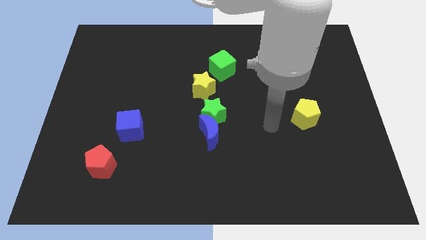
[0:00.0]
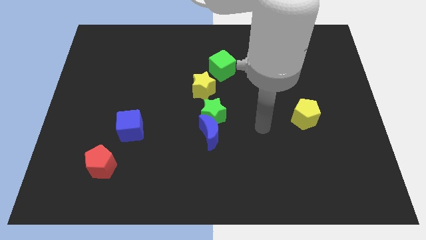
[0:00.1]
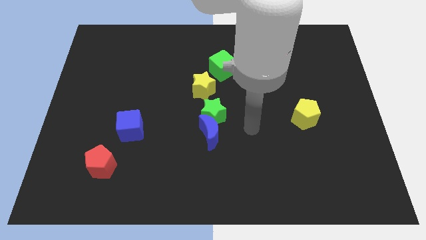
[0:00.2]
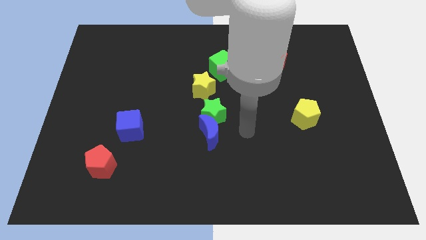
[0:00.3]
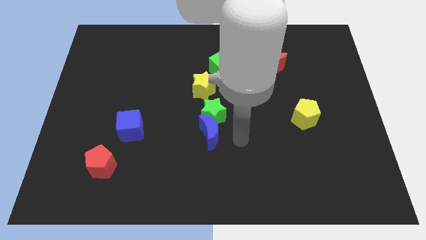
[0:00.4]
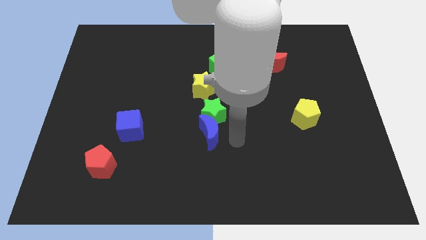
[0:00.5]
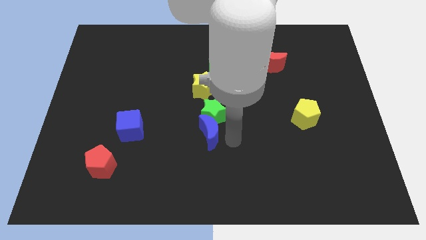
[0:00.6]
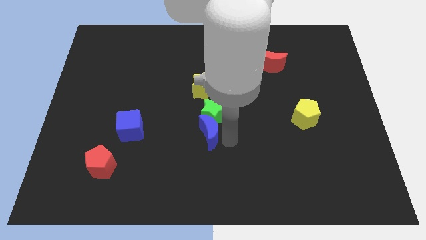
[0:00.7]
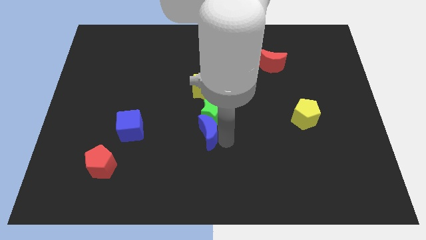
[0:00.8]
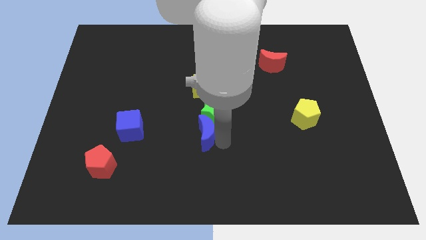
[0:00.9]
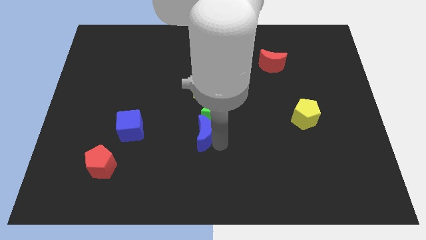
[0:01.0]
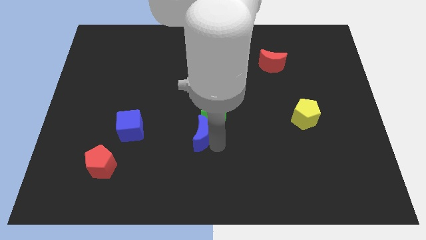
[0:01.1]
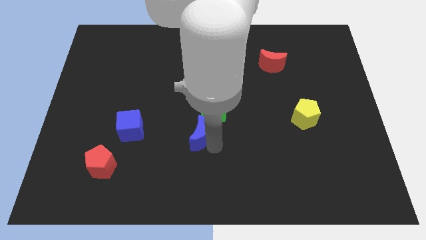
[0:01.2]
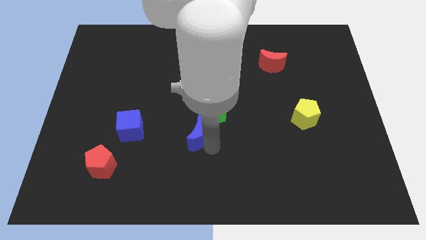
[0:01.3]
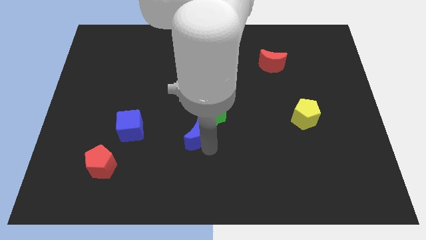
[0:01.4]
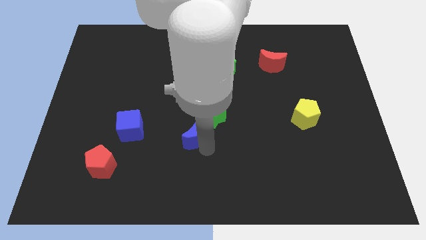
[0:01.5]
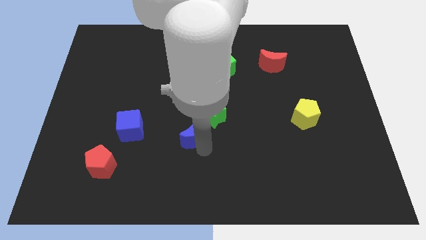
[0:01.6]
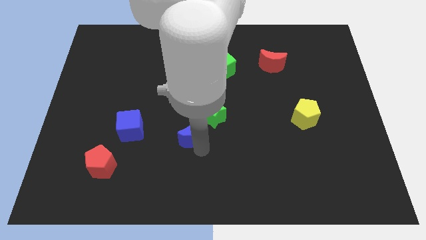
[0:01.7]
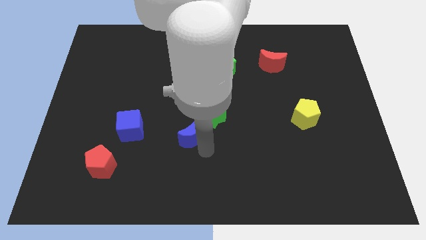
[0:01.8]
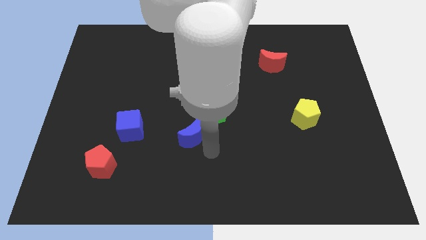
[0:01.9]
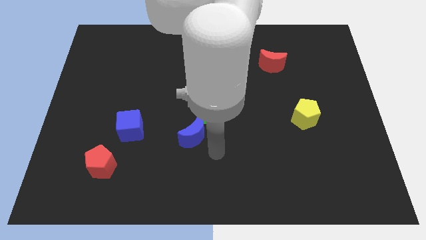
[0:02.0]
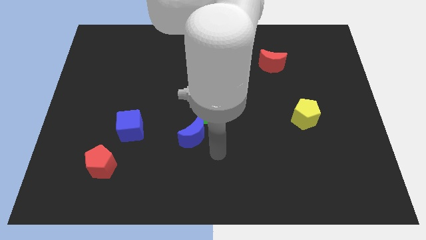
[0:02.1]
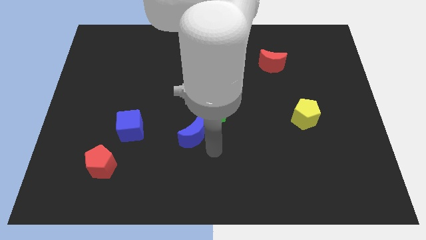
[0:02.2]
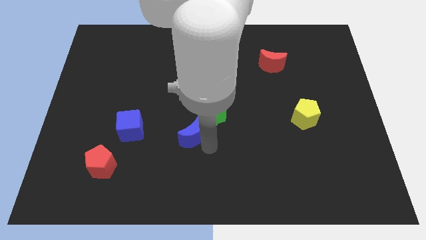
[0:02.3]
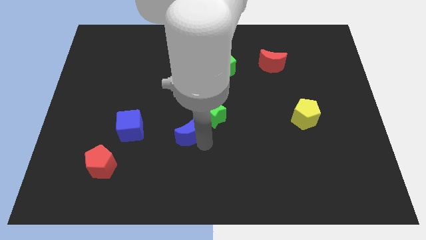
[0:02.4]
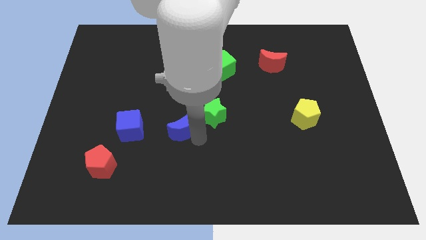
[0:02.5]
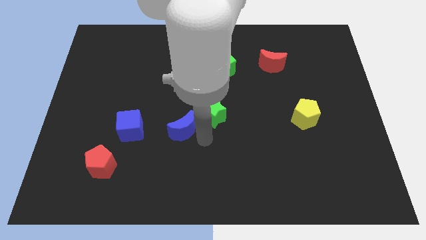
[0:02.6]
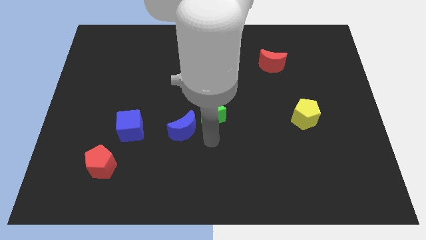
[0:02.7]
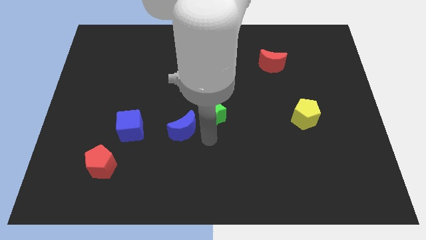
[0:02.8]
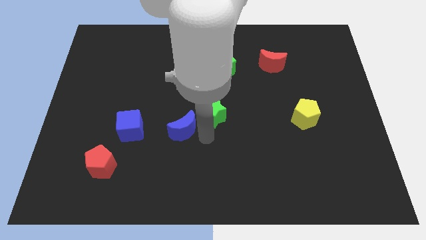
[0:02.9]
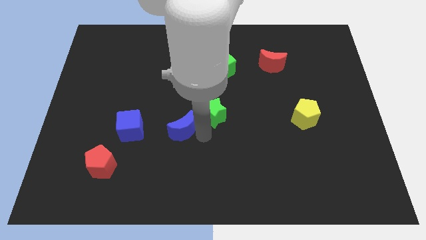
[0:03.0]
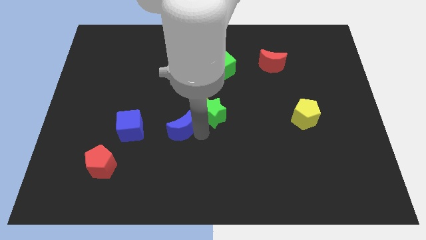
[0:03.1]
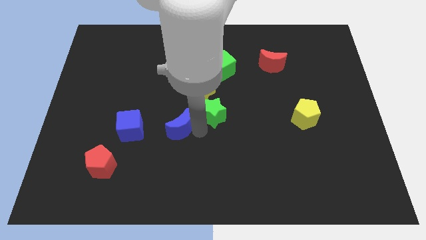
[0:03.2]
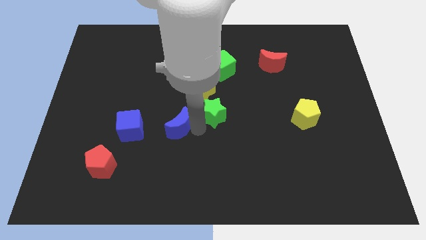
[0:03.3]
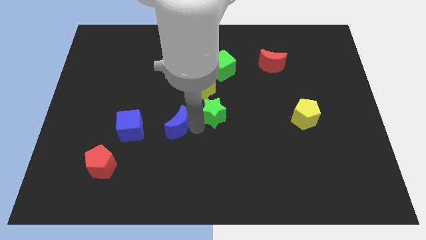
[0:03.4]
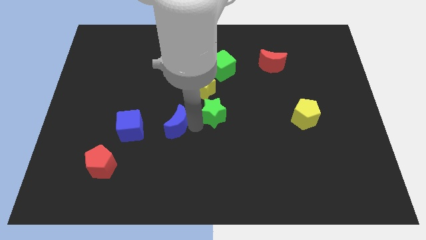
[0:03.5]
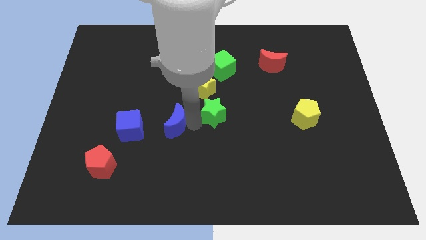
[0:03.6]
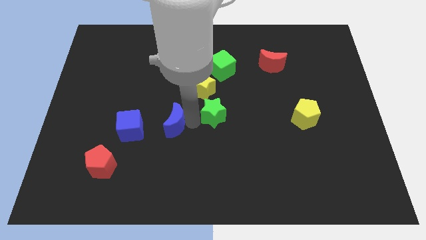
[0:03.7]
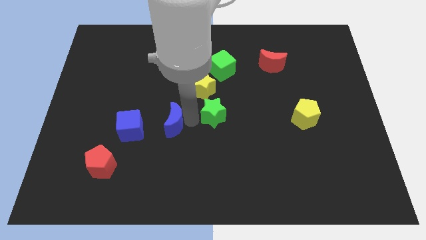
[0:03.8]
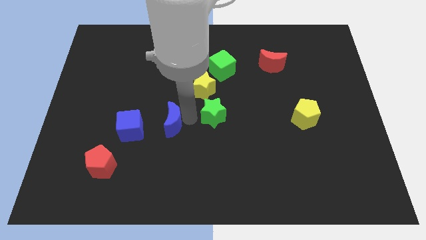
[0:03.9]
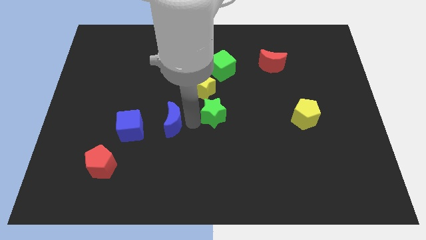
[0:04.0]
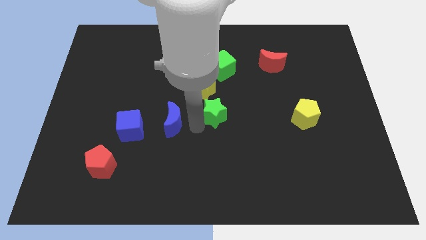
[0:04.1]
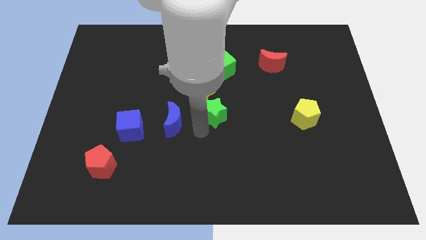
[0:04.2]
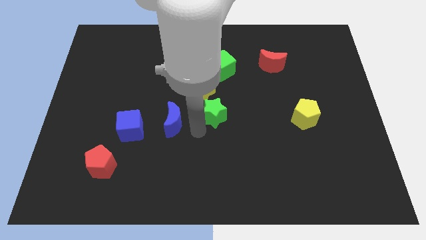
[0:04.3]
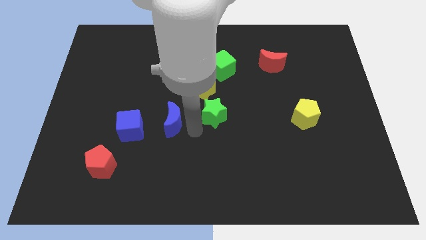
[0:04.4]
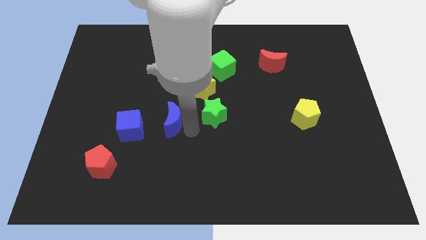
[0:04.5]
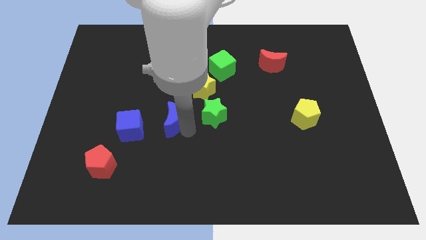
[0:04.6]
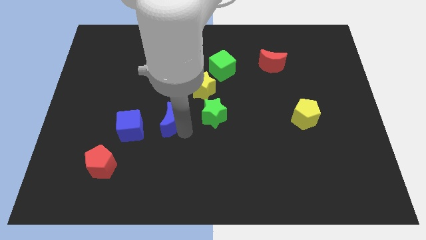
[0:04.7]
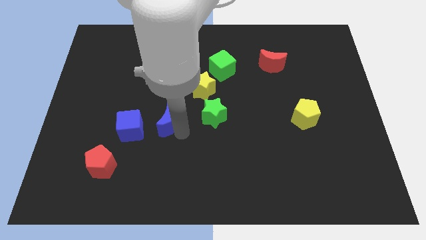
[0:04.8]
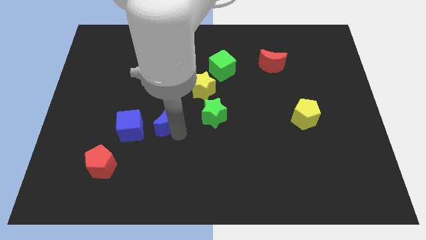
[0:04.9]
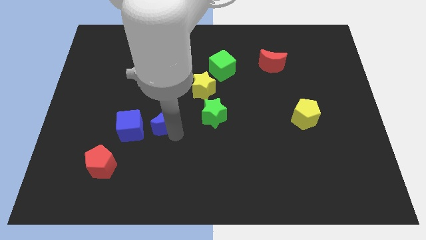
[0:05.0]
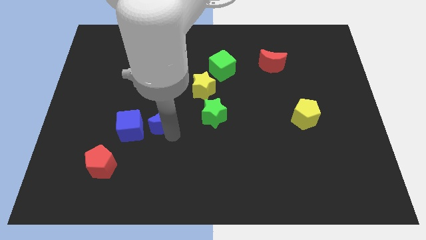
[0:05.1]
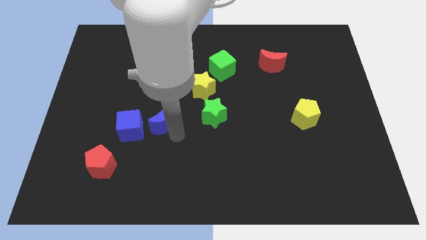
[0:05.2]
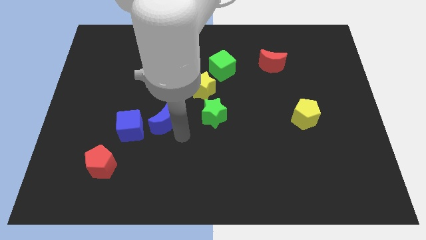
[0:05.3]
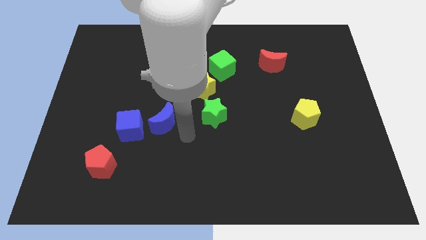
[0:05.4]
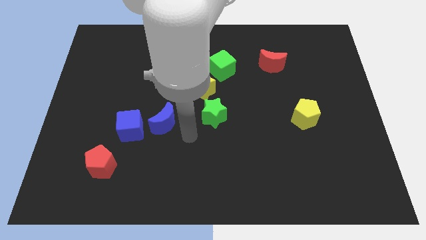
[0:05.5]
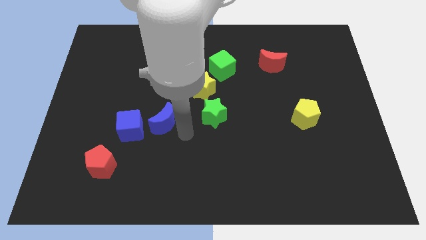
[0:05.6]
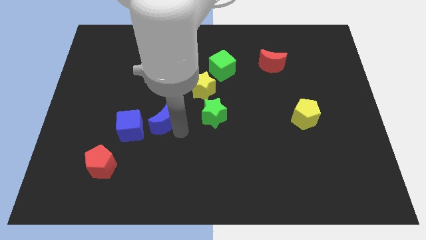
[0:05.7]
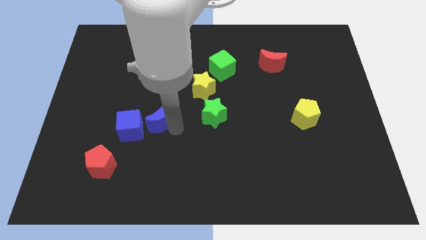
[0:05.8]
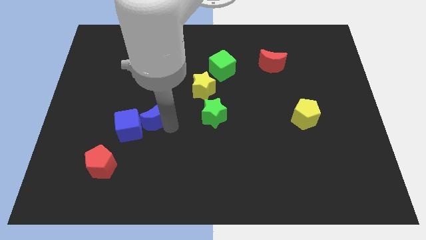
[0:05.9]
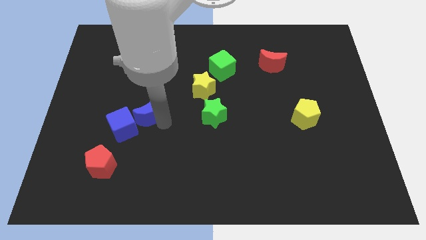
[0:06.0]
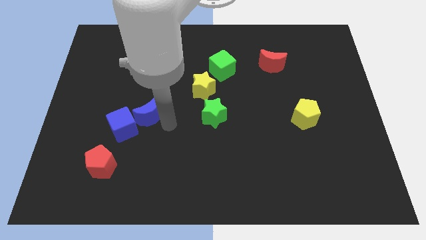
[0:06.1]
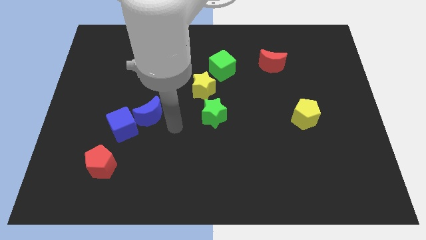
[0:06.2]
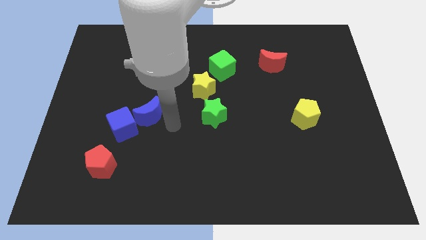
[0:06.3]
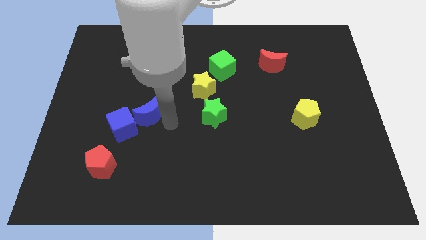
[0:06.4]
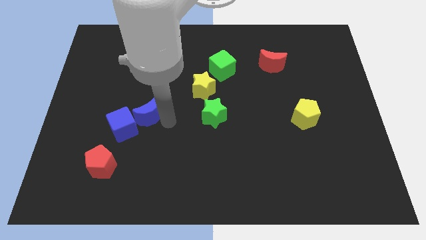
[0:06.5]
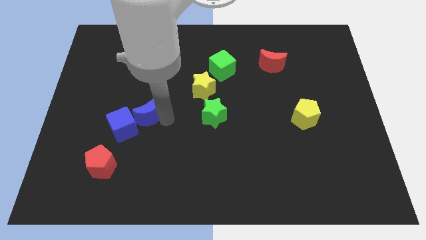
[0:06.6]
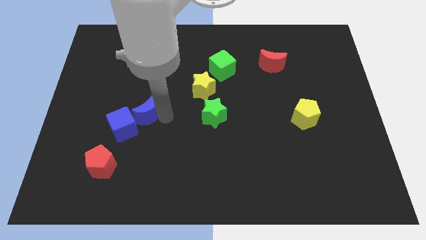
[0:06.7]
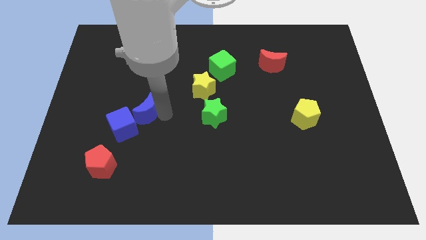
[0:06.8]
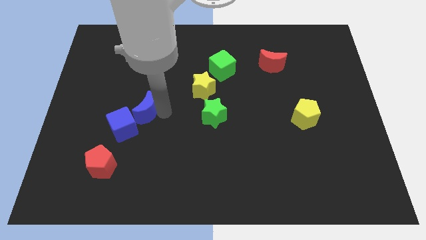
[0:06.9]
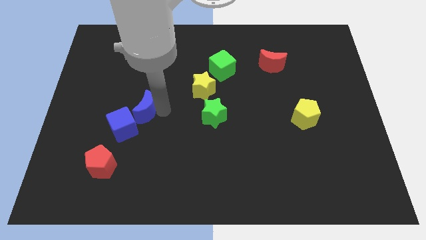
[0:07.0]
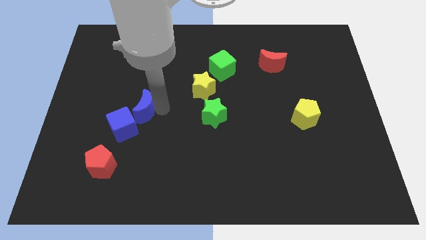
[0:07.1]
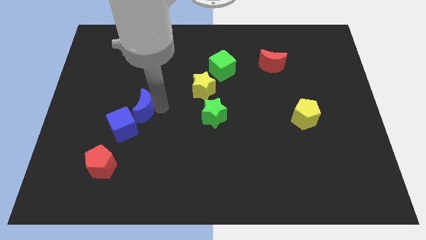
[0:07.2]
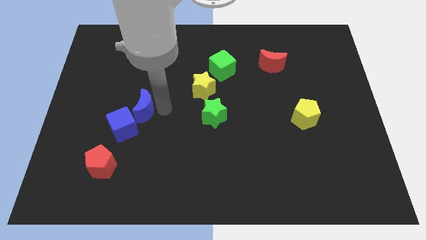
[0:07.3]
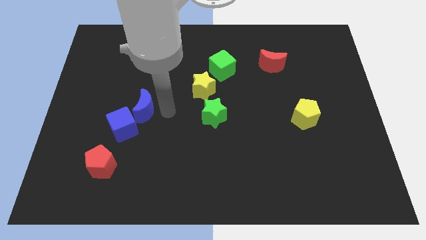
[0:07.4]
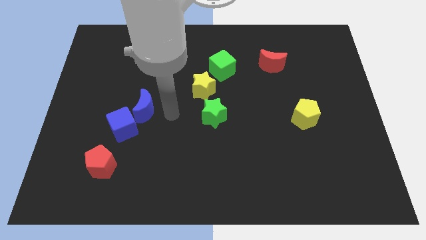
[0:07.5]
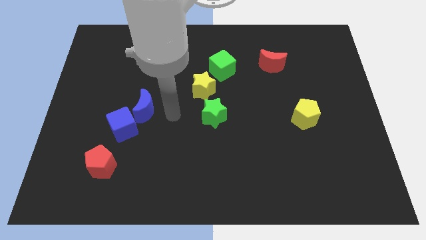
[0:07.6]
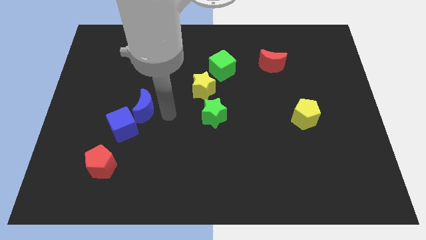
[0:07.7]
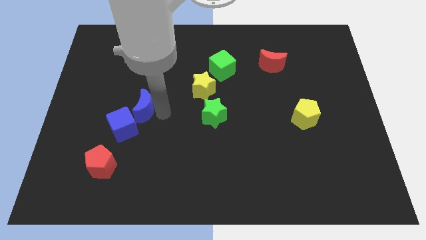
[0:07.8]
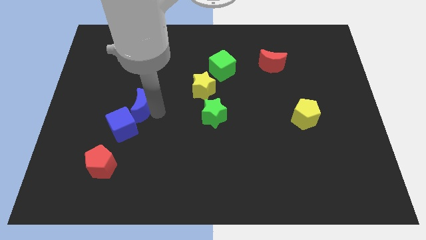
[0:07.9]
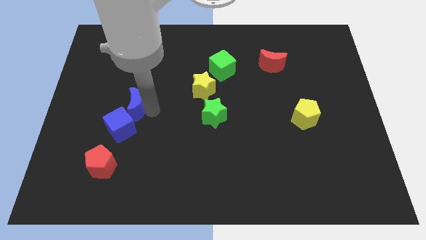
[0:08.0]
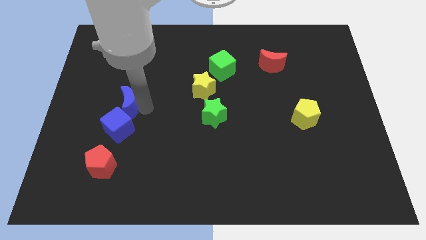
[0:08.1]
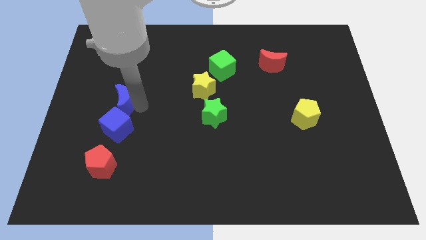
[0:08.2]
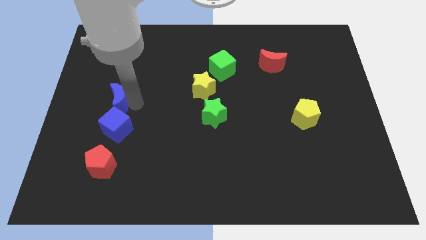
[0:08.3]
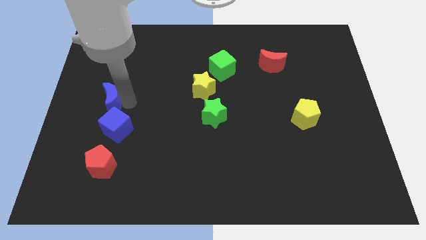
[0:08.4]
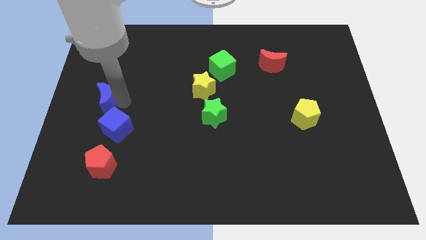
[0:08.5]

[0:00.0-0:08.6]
slide the blue moon to the center left
